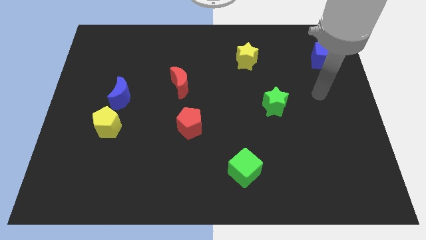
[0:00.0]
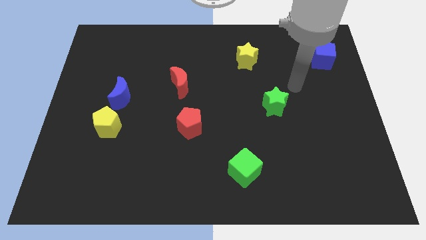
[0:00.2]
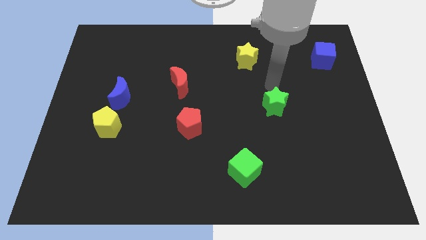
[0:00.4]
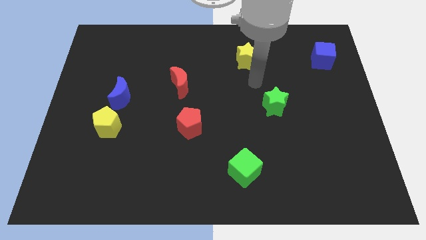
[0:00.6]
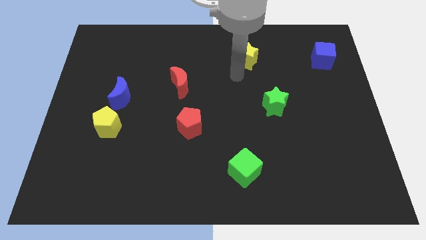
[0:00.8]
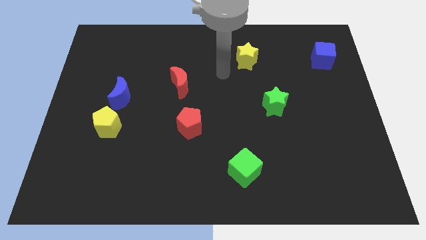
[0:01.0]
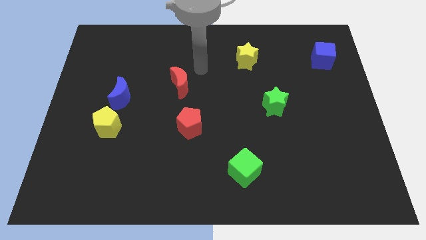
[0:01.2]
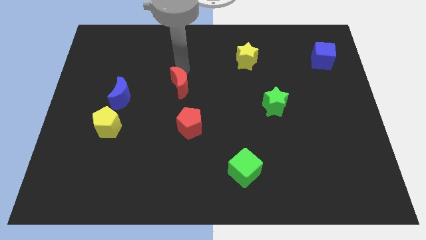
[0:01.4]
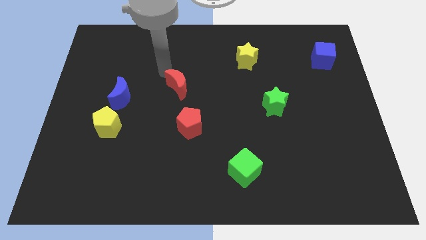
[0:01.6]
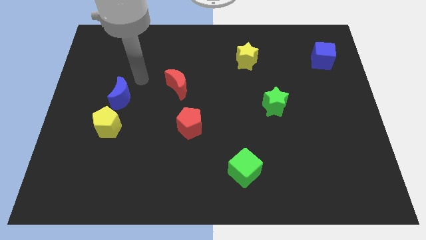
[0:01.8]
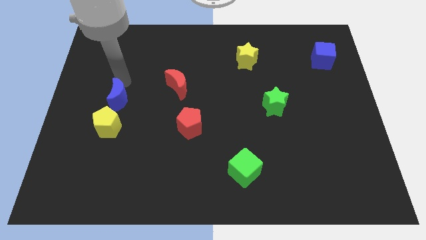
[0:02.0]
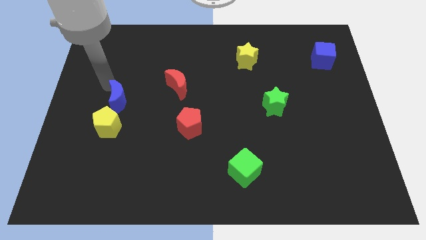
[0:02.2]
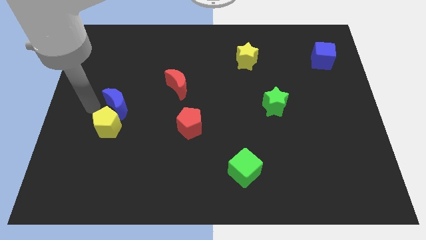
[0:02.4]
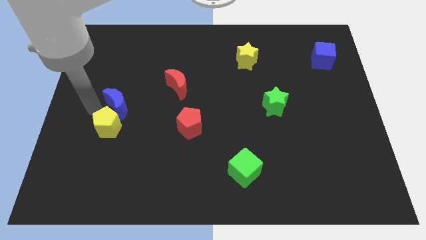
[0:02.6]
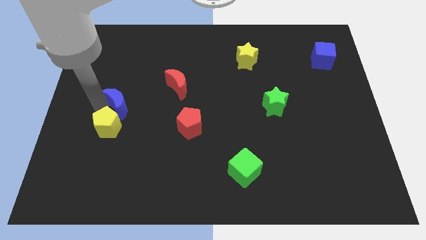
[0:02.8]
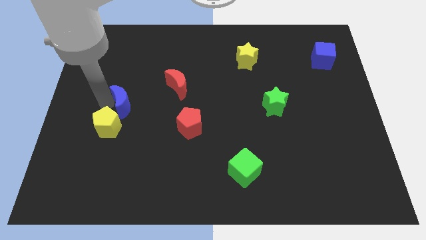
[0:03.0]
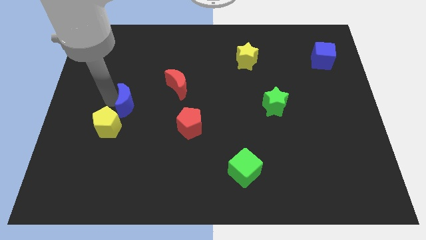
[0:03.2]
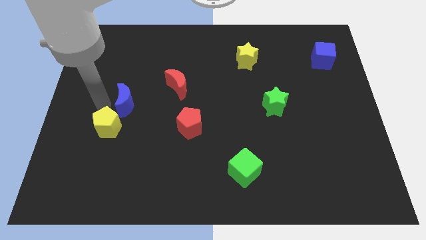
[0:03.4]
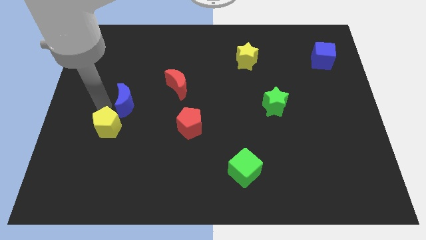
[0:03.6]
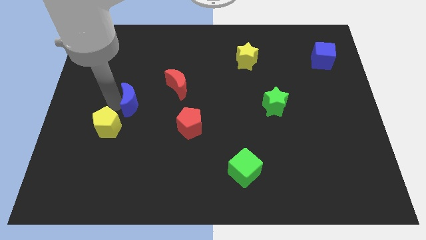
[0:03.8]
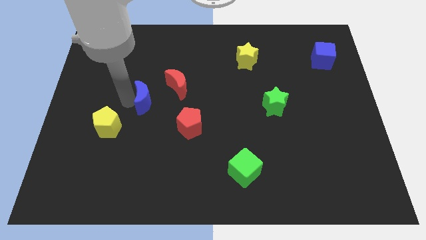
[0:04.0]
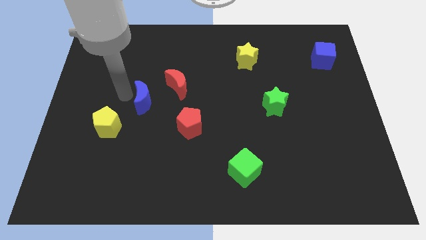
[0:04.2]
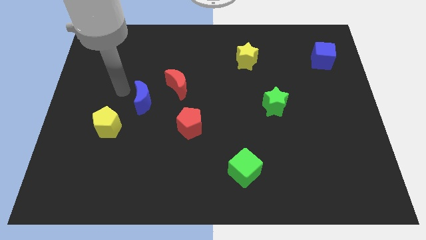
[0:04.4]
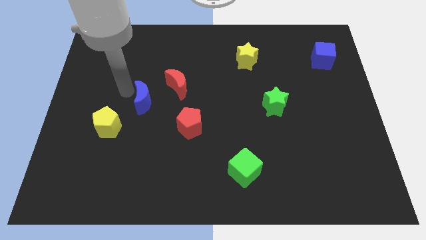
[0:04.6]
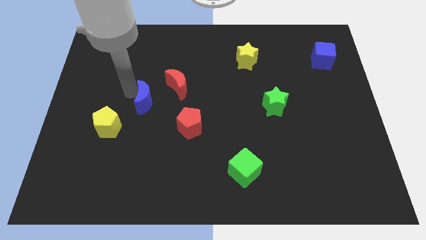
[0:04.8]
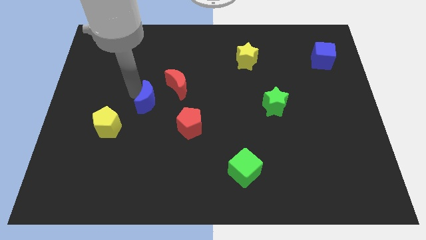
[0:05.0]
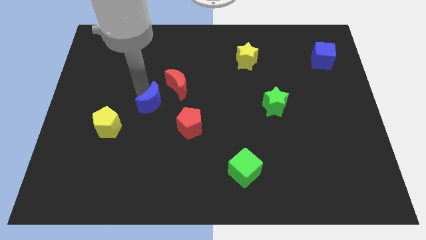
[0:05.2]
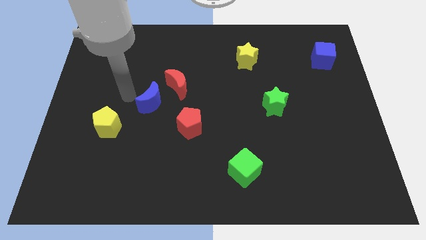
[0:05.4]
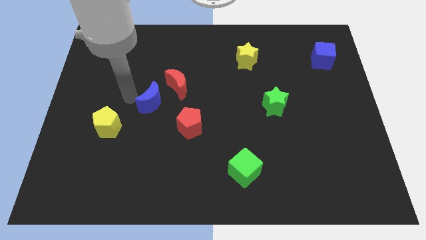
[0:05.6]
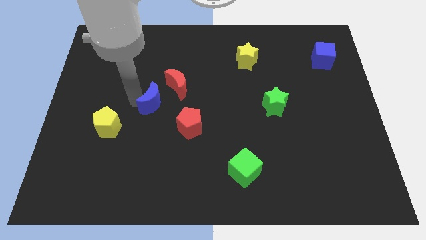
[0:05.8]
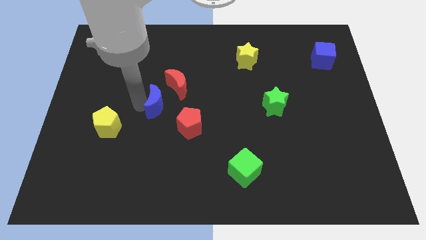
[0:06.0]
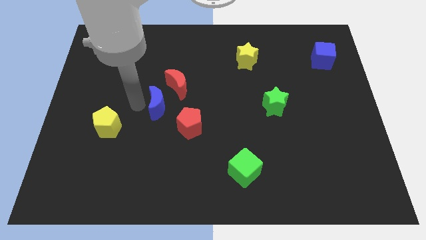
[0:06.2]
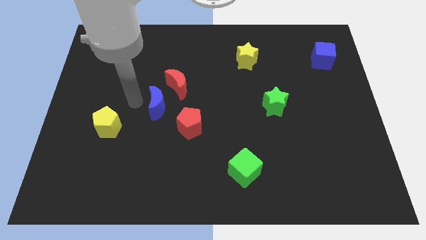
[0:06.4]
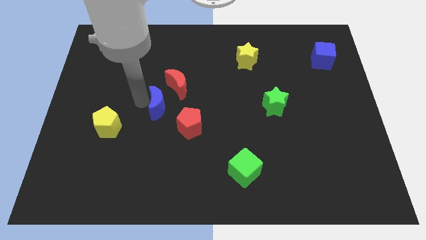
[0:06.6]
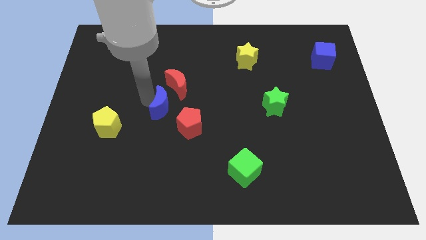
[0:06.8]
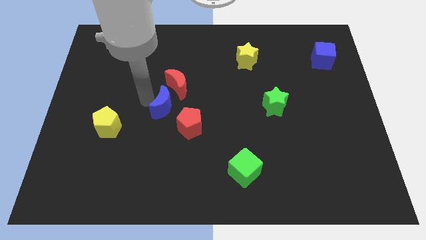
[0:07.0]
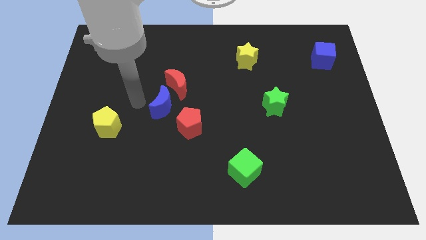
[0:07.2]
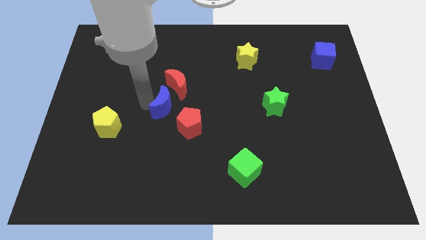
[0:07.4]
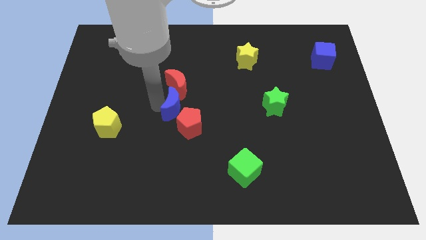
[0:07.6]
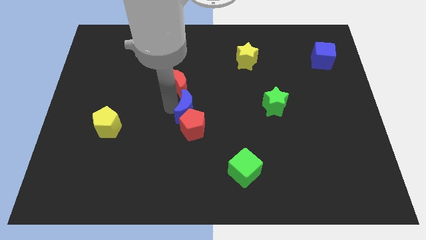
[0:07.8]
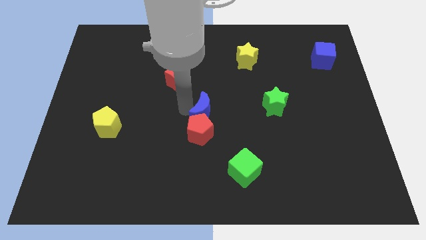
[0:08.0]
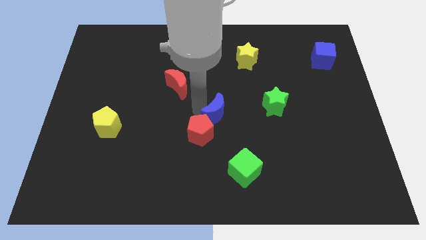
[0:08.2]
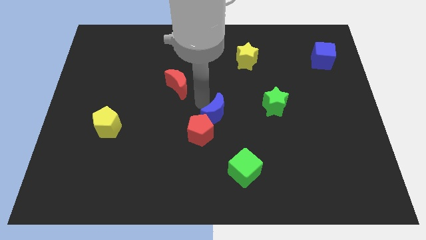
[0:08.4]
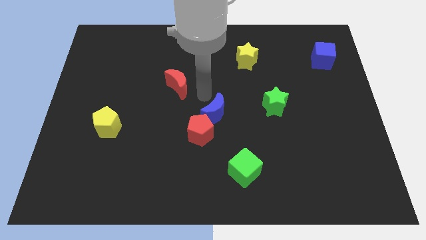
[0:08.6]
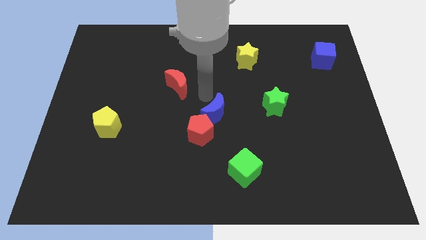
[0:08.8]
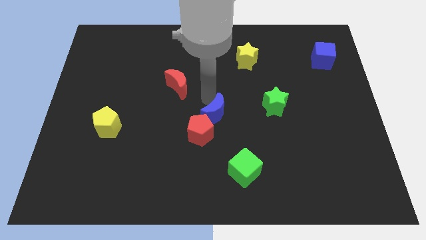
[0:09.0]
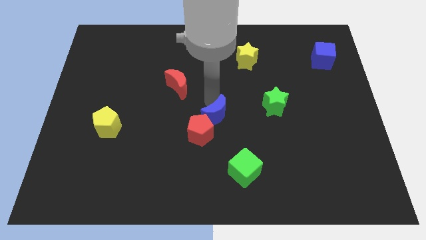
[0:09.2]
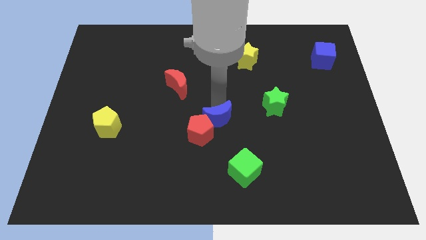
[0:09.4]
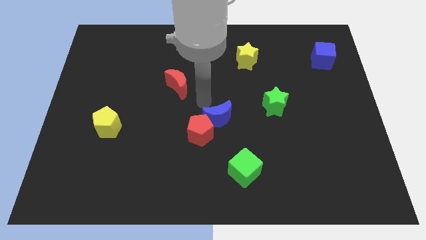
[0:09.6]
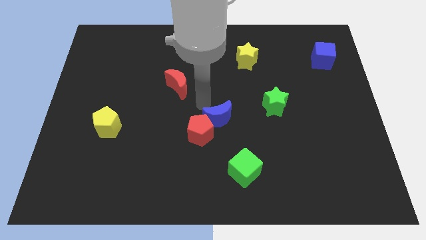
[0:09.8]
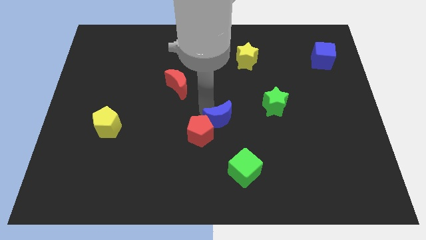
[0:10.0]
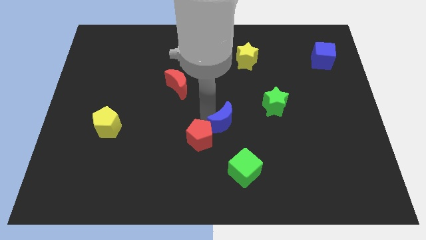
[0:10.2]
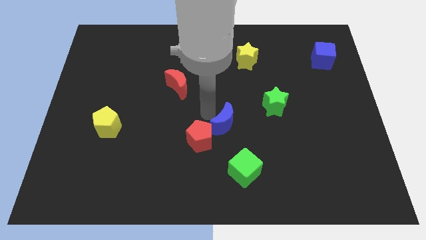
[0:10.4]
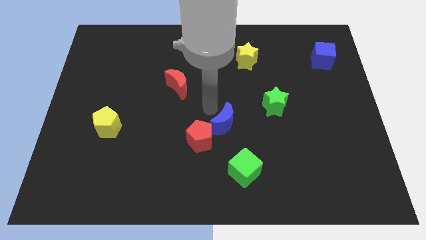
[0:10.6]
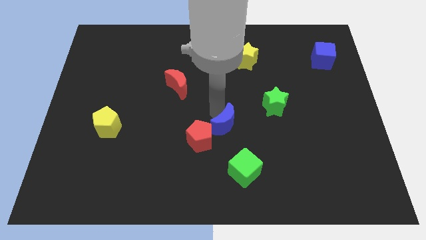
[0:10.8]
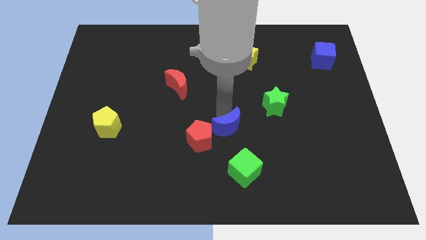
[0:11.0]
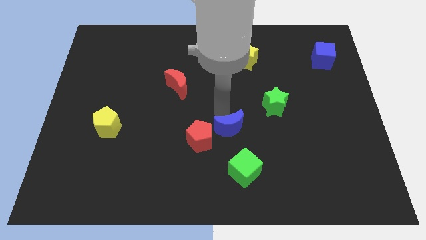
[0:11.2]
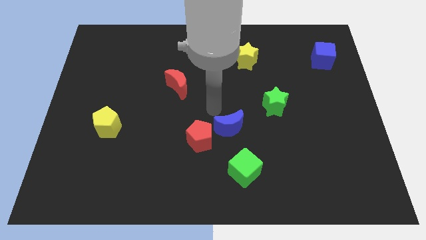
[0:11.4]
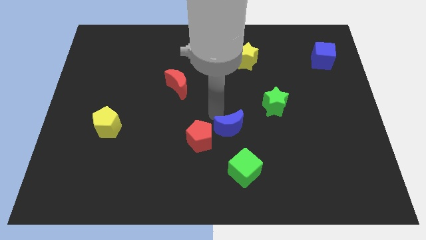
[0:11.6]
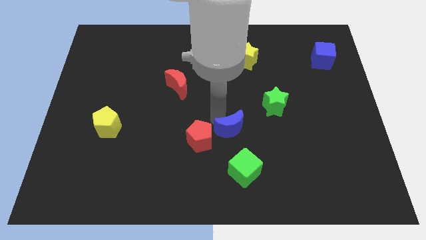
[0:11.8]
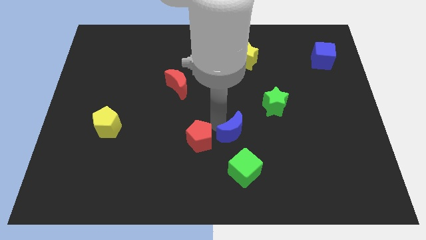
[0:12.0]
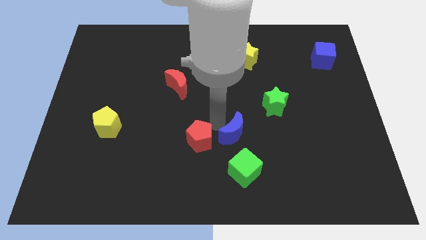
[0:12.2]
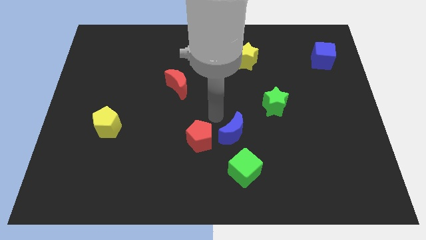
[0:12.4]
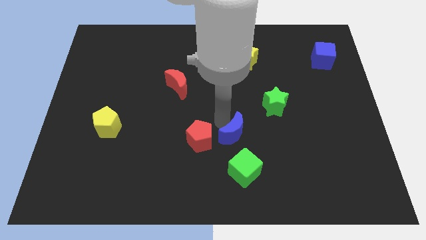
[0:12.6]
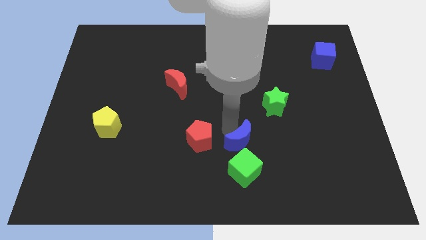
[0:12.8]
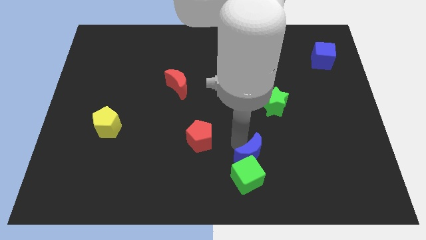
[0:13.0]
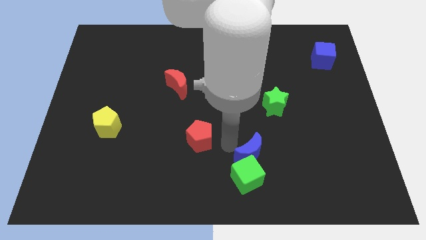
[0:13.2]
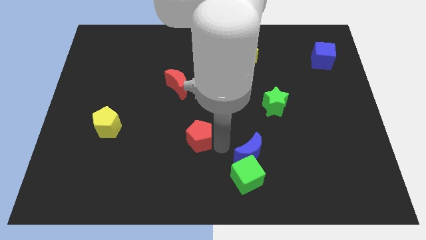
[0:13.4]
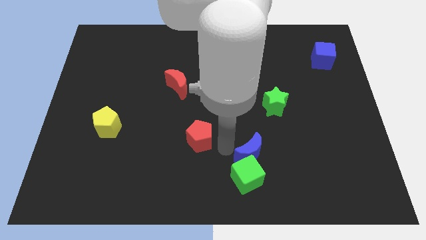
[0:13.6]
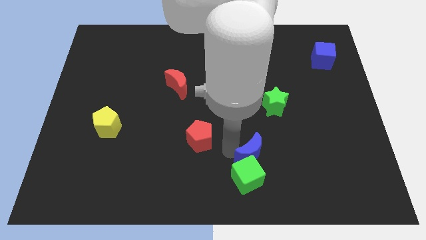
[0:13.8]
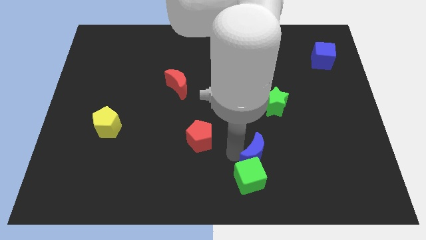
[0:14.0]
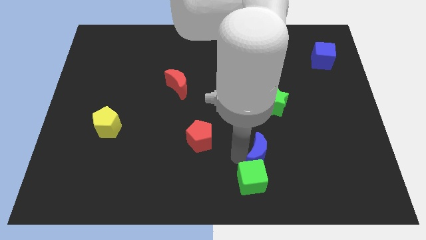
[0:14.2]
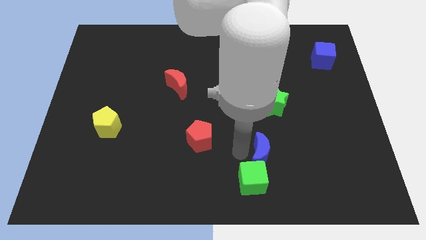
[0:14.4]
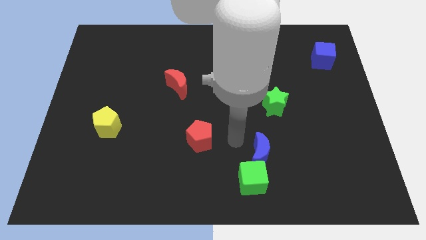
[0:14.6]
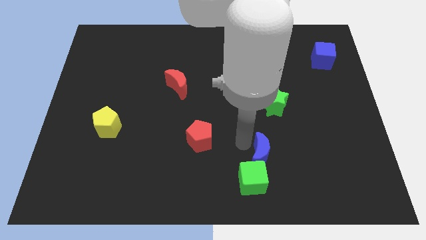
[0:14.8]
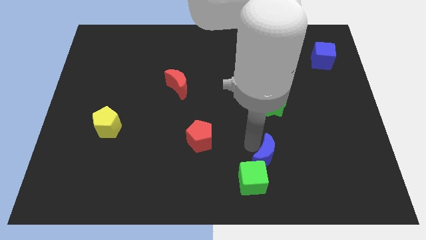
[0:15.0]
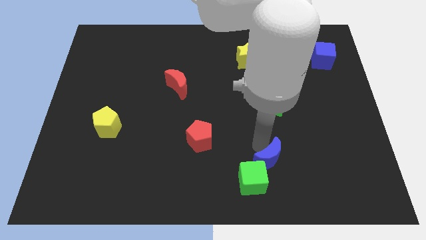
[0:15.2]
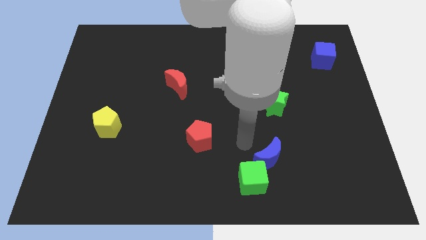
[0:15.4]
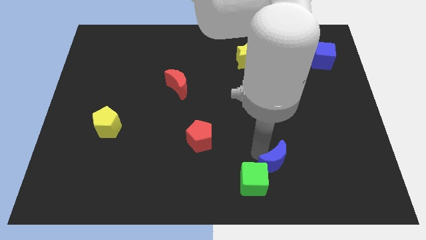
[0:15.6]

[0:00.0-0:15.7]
put the blue moon just right of the green cube
